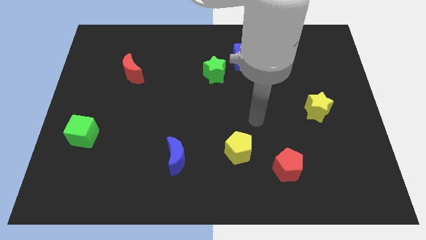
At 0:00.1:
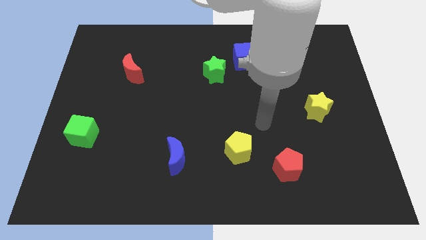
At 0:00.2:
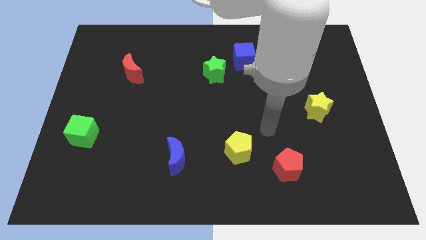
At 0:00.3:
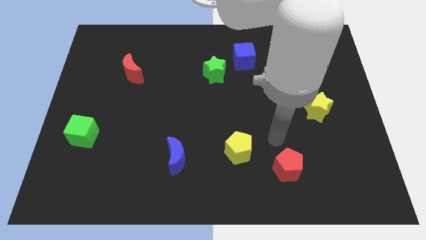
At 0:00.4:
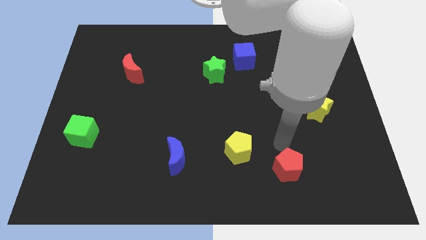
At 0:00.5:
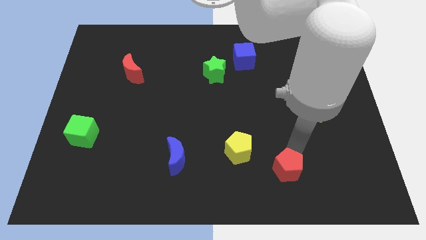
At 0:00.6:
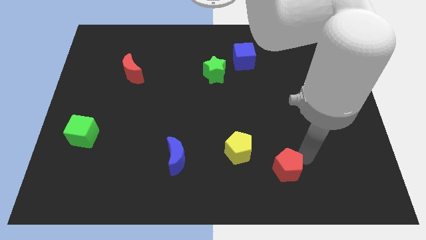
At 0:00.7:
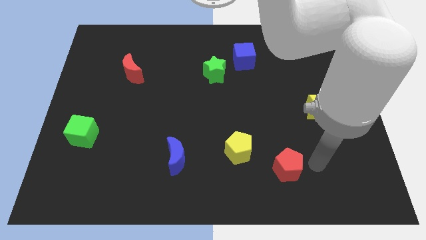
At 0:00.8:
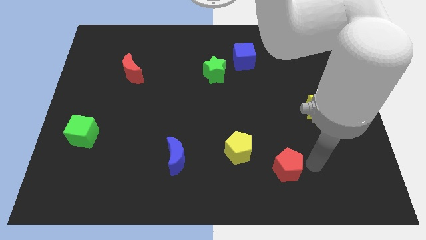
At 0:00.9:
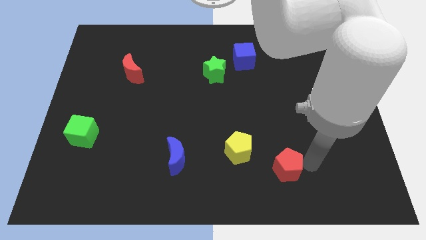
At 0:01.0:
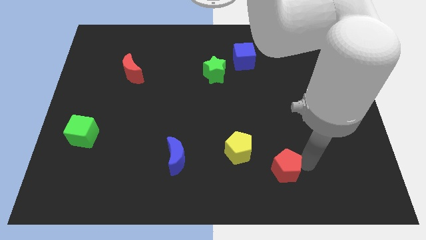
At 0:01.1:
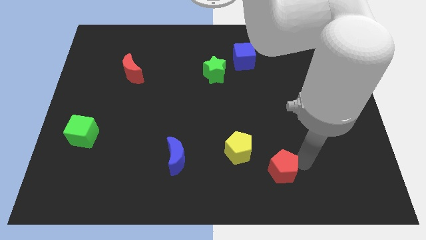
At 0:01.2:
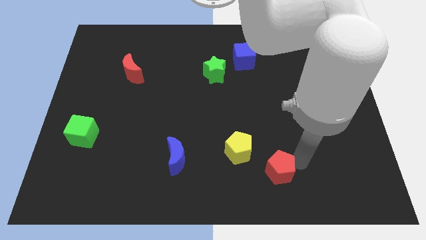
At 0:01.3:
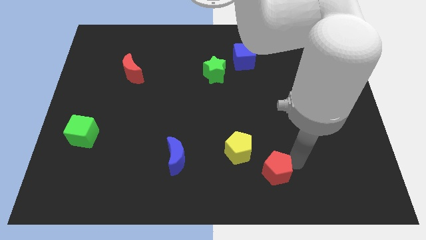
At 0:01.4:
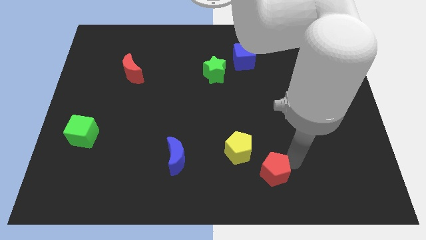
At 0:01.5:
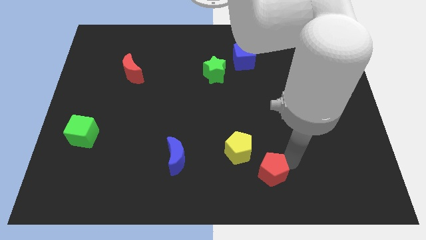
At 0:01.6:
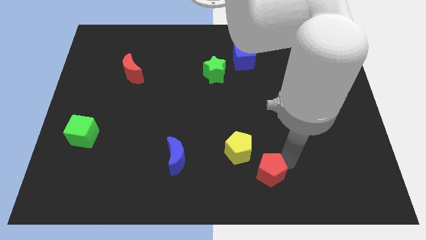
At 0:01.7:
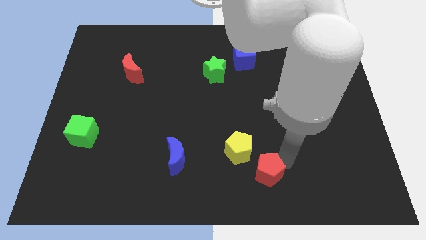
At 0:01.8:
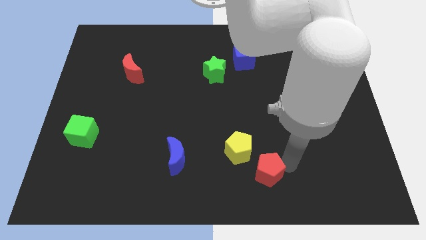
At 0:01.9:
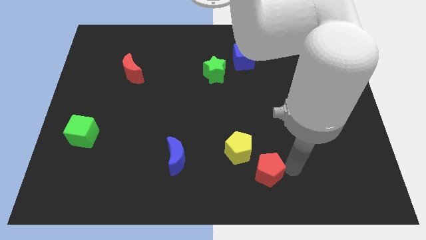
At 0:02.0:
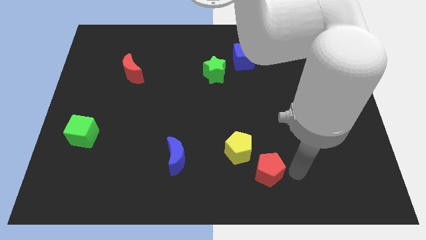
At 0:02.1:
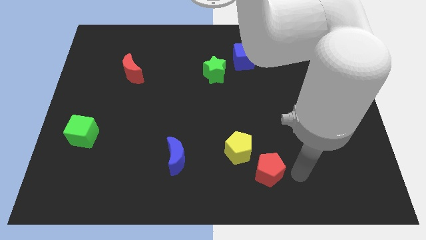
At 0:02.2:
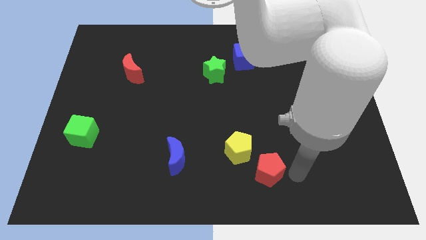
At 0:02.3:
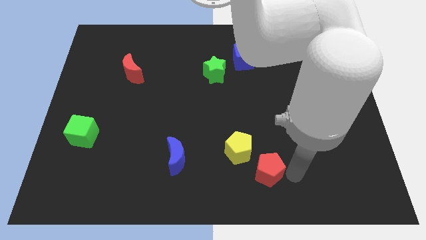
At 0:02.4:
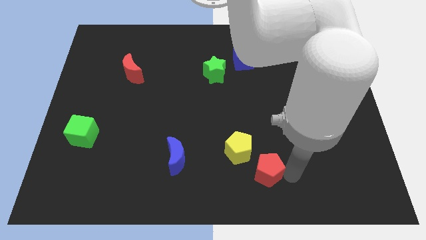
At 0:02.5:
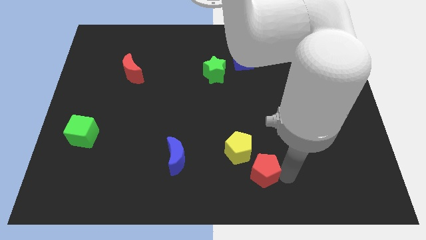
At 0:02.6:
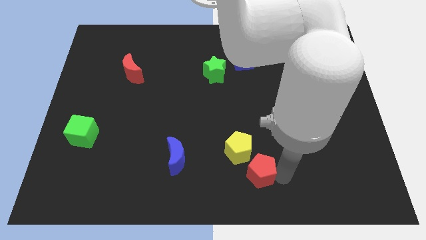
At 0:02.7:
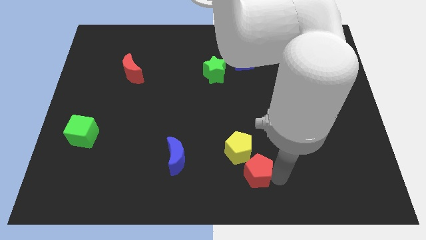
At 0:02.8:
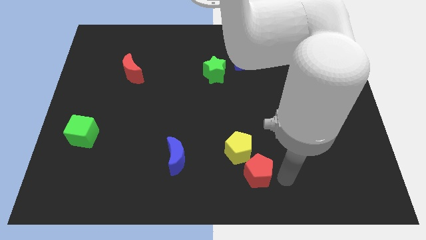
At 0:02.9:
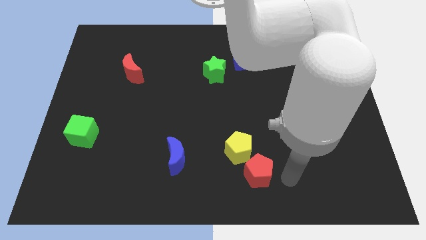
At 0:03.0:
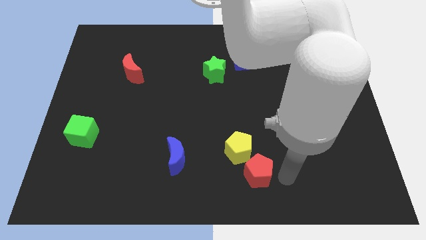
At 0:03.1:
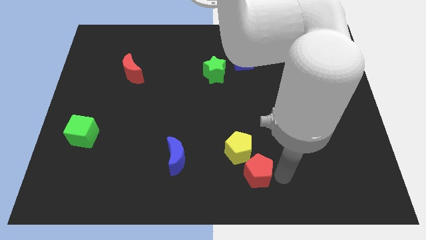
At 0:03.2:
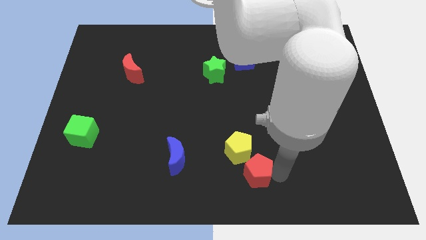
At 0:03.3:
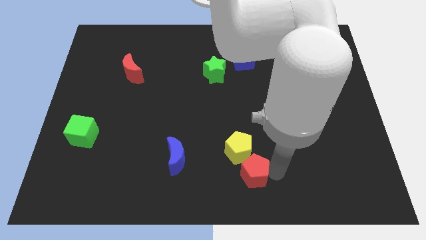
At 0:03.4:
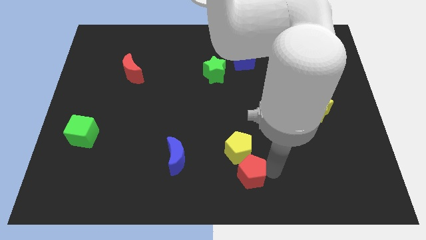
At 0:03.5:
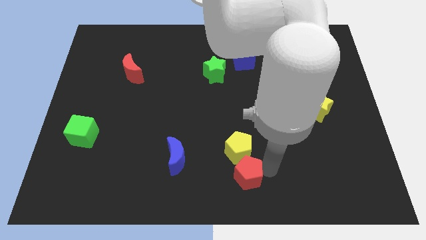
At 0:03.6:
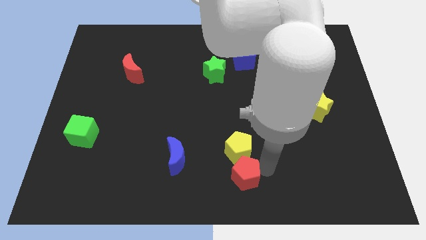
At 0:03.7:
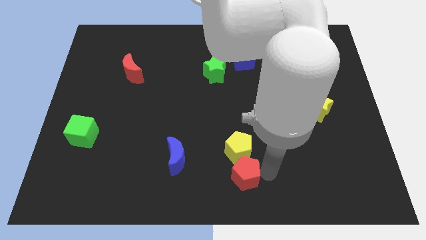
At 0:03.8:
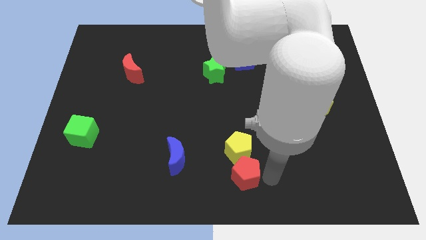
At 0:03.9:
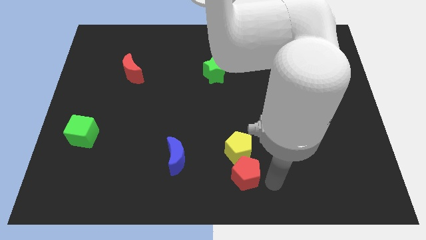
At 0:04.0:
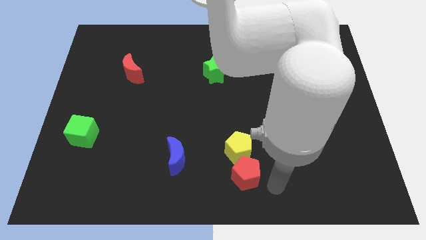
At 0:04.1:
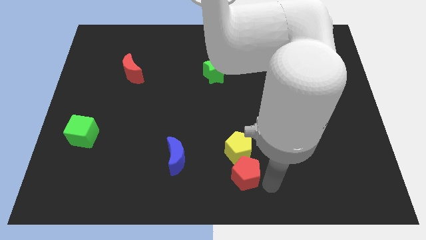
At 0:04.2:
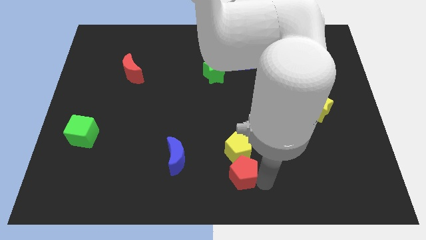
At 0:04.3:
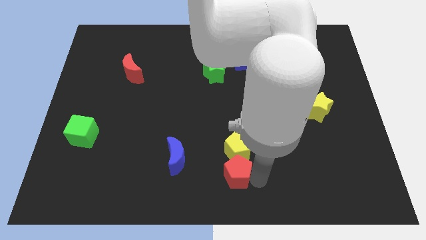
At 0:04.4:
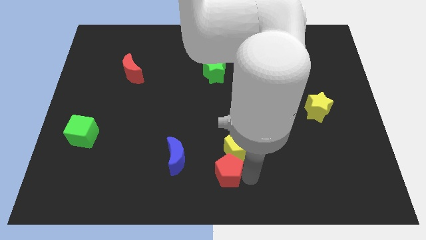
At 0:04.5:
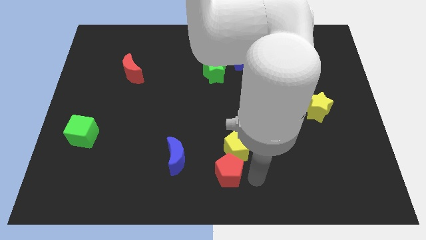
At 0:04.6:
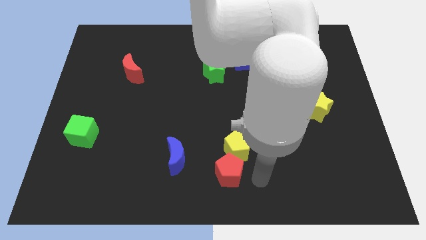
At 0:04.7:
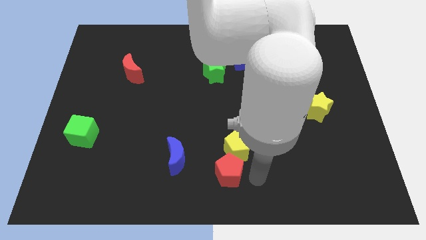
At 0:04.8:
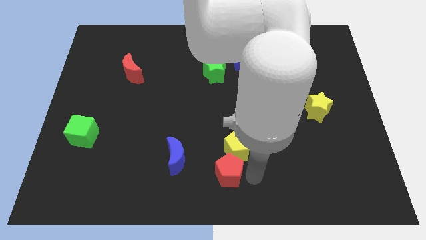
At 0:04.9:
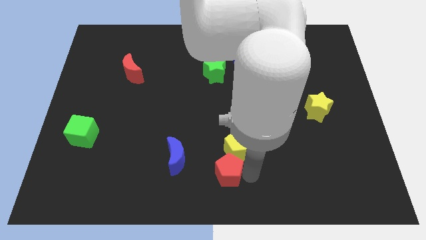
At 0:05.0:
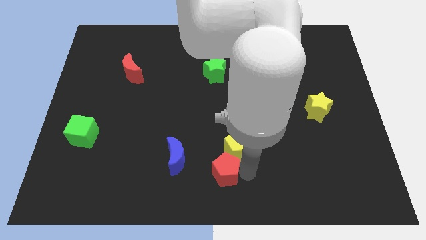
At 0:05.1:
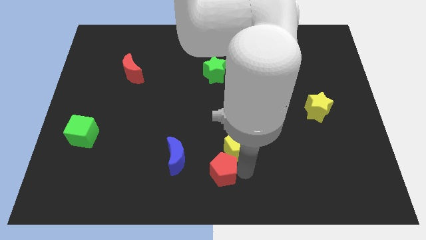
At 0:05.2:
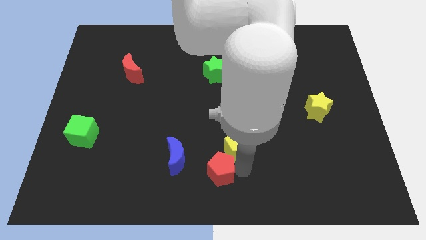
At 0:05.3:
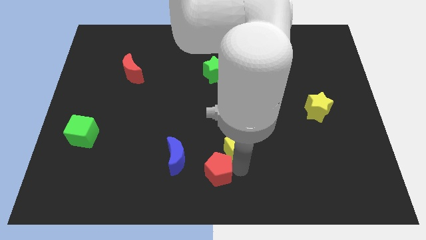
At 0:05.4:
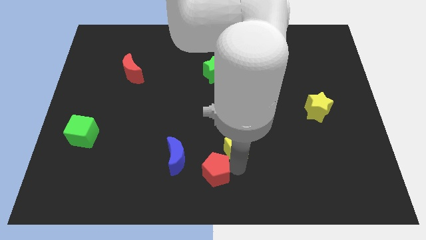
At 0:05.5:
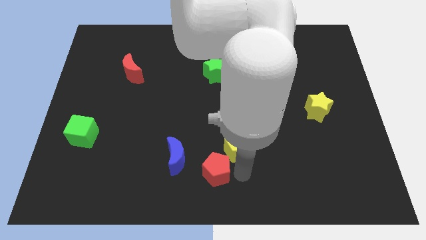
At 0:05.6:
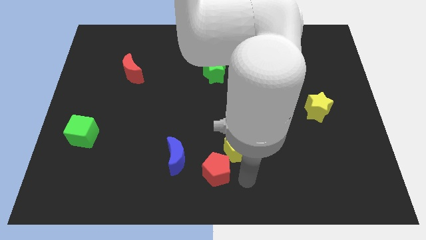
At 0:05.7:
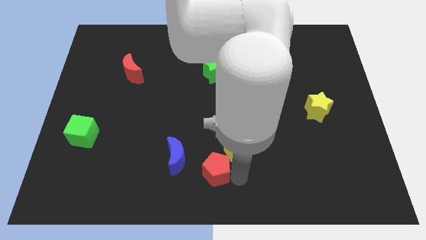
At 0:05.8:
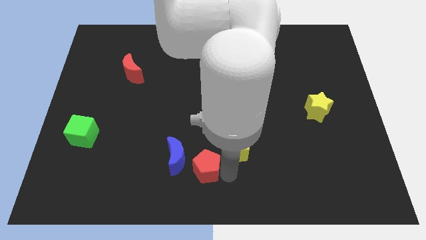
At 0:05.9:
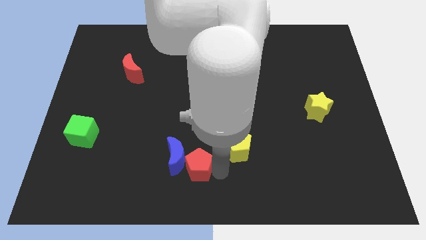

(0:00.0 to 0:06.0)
put the red pentagon close to the blue moon

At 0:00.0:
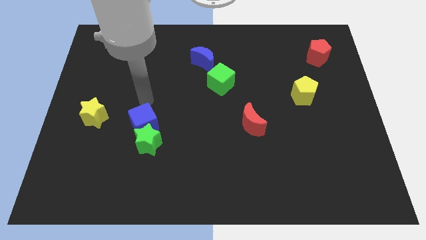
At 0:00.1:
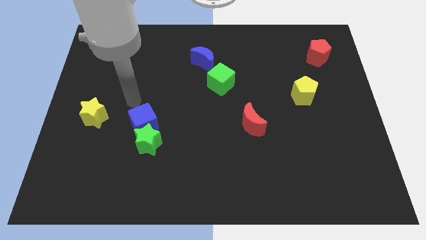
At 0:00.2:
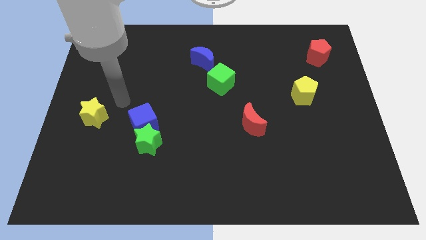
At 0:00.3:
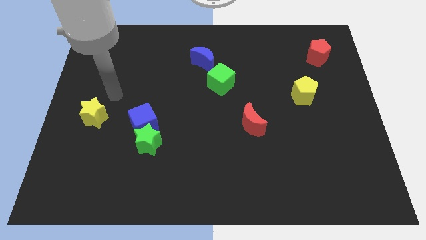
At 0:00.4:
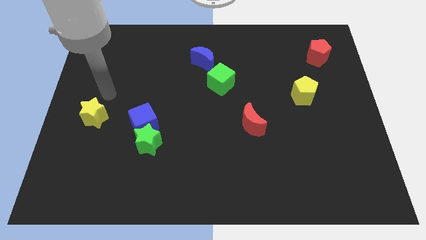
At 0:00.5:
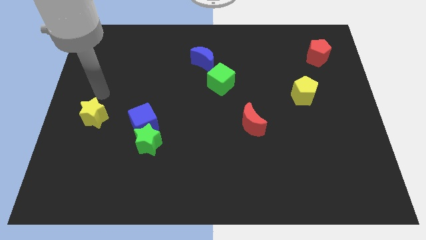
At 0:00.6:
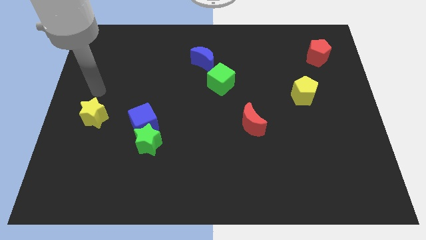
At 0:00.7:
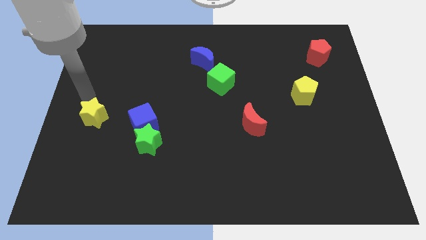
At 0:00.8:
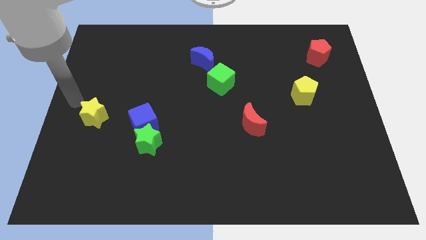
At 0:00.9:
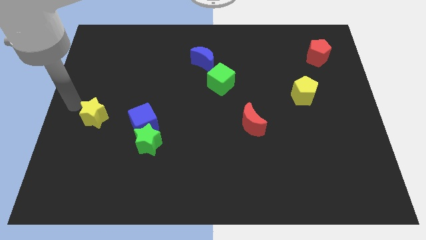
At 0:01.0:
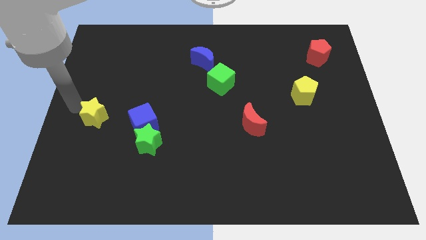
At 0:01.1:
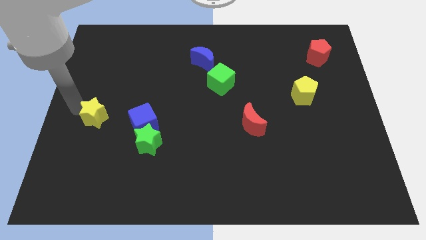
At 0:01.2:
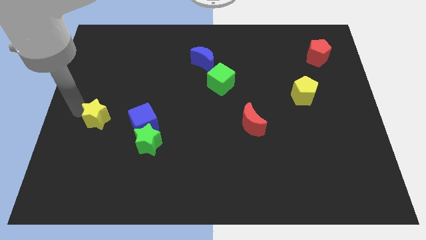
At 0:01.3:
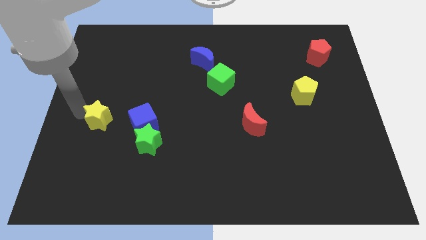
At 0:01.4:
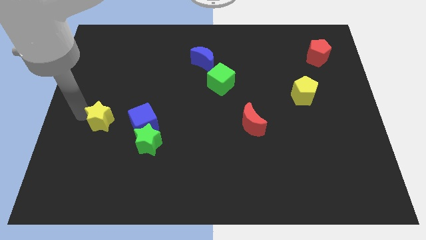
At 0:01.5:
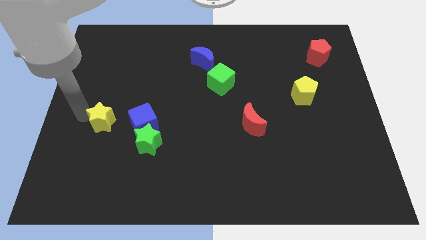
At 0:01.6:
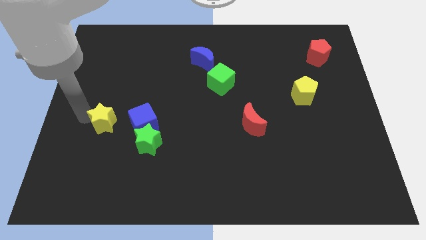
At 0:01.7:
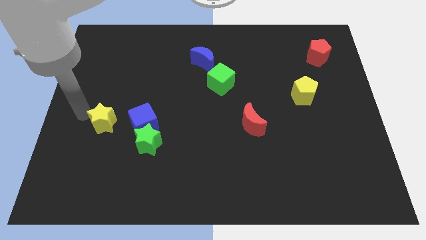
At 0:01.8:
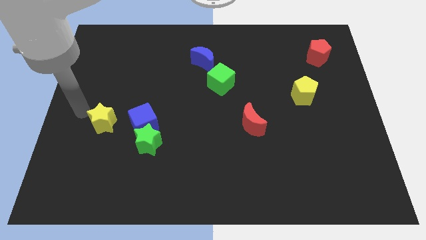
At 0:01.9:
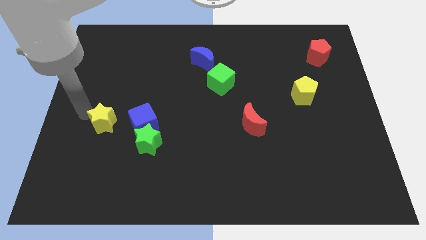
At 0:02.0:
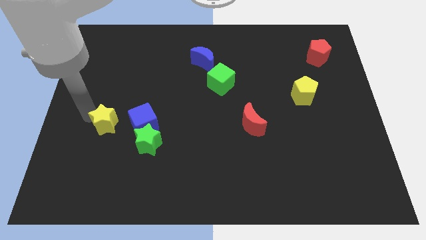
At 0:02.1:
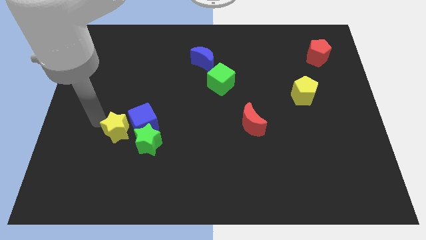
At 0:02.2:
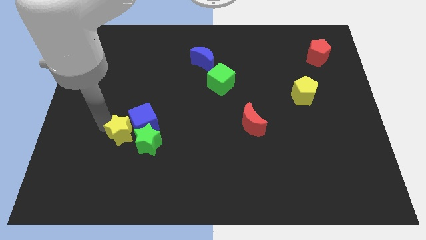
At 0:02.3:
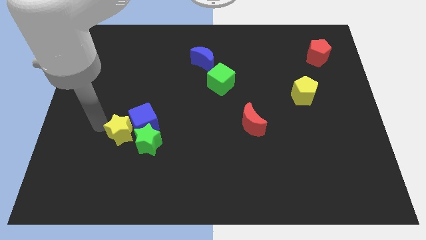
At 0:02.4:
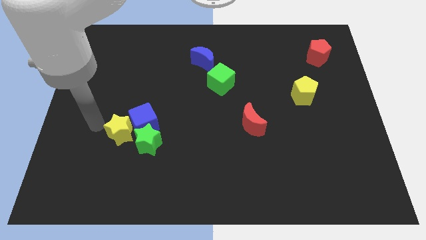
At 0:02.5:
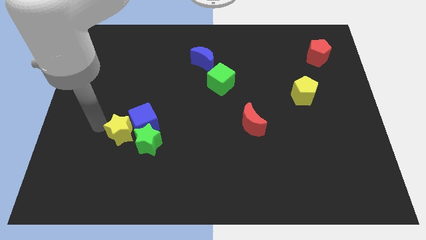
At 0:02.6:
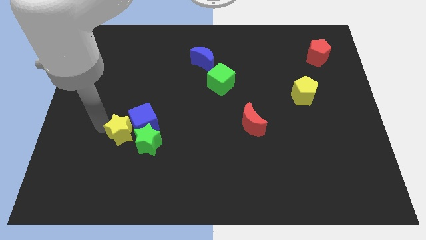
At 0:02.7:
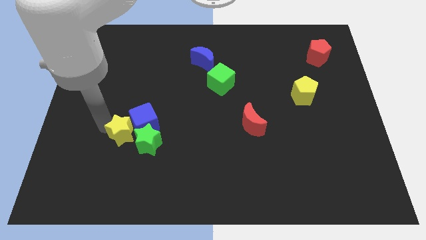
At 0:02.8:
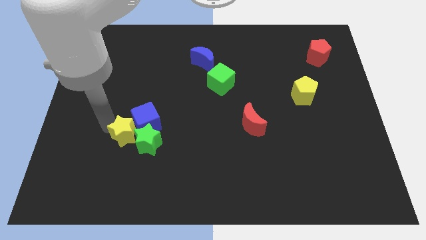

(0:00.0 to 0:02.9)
slide the yellow star next to the green star
